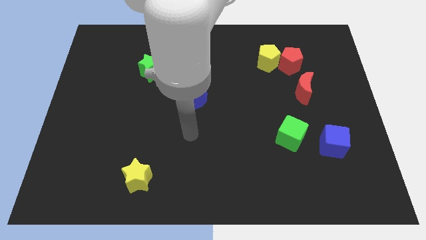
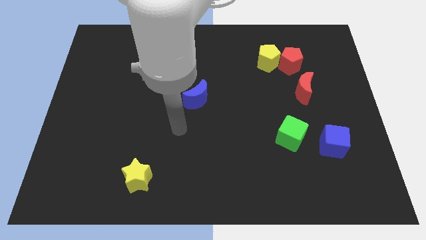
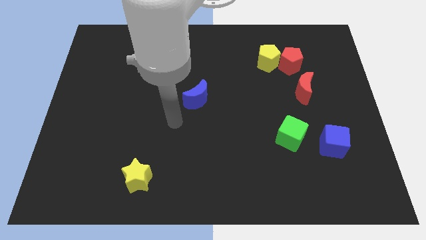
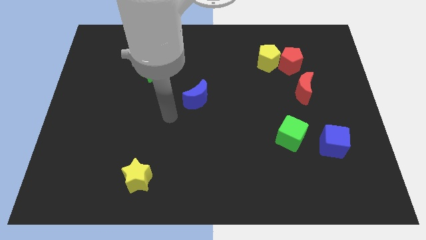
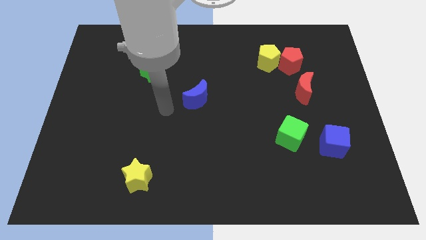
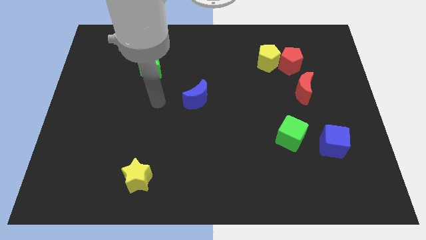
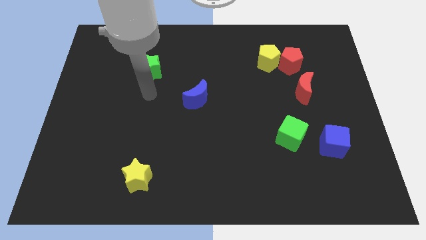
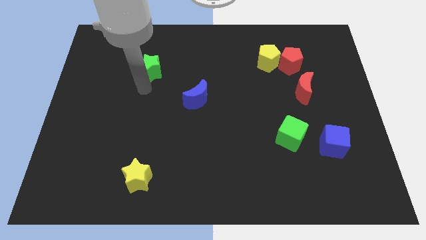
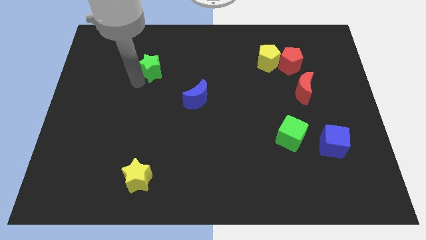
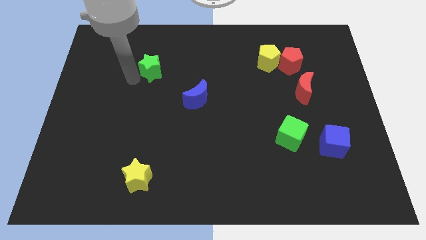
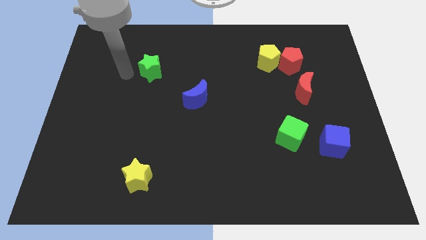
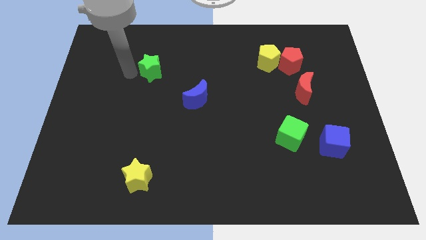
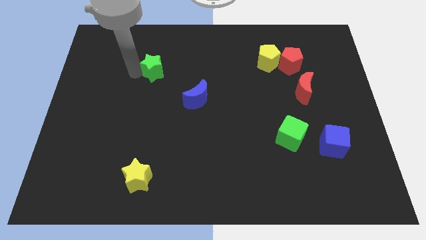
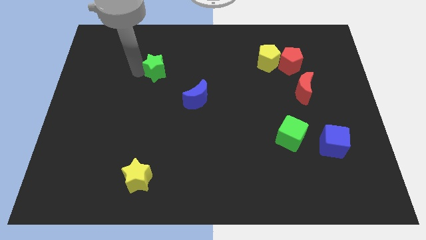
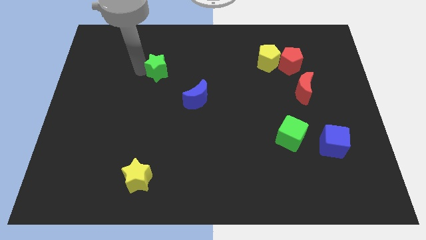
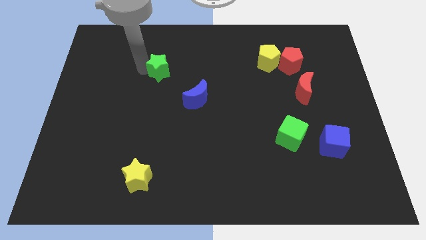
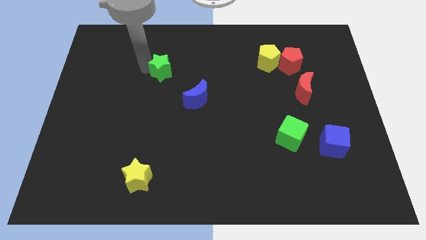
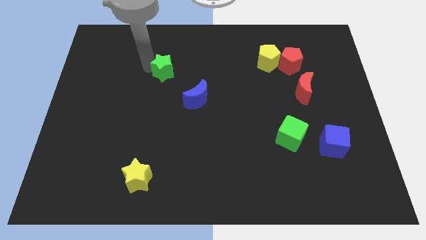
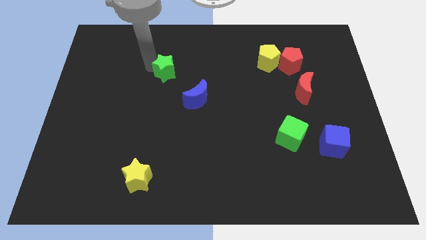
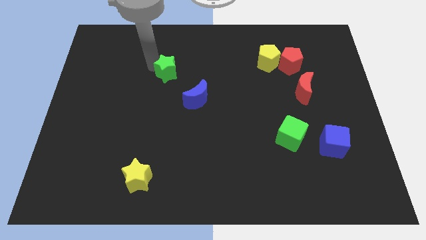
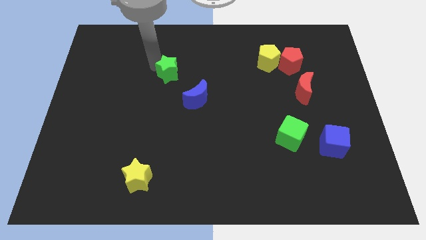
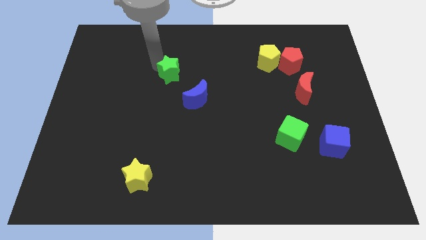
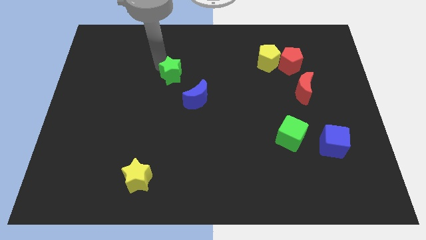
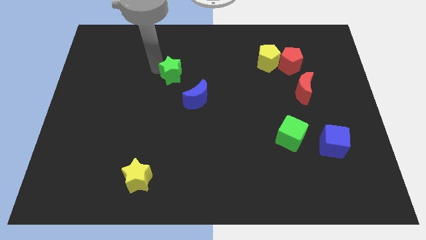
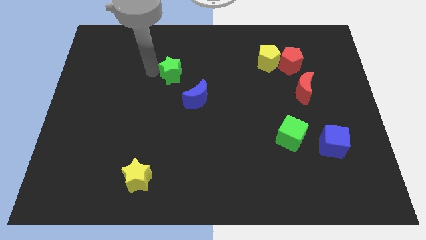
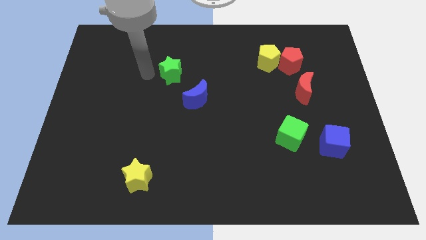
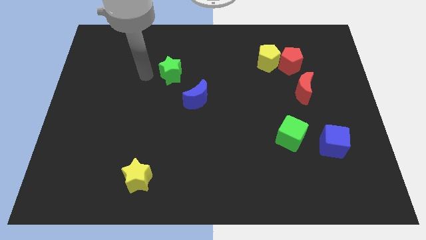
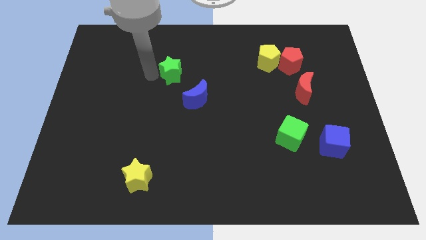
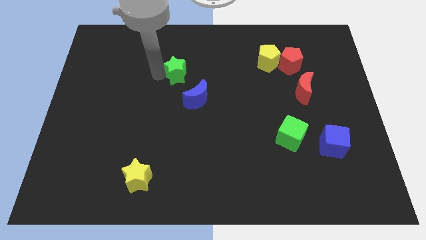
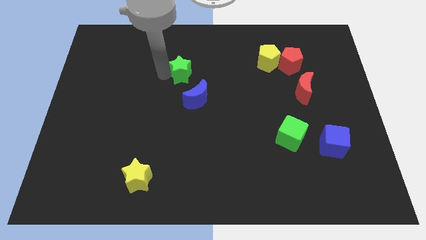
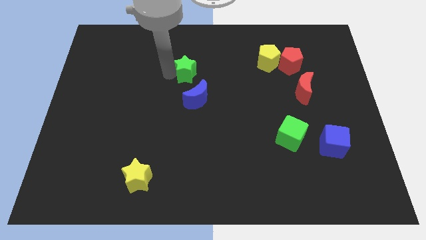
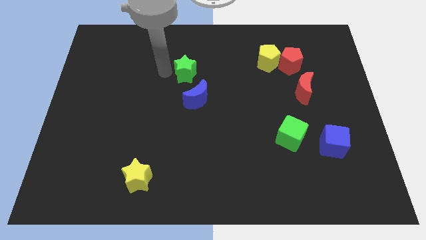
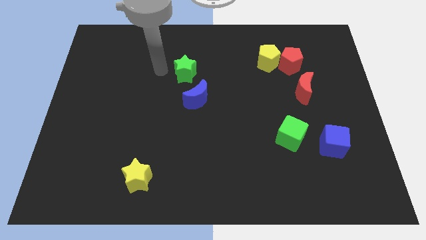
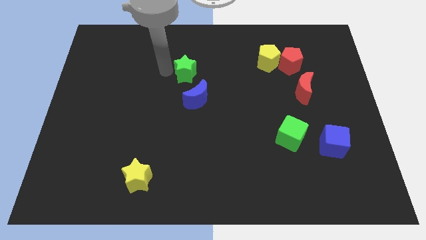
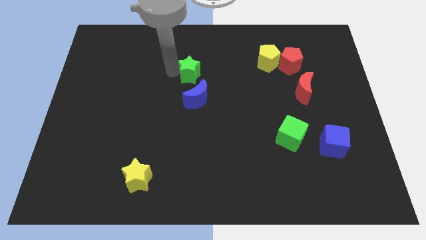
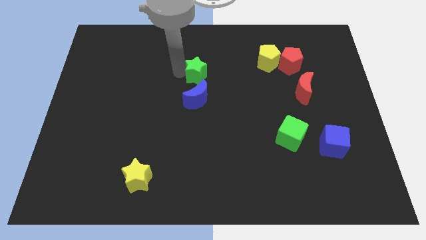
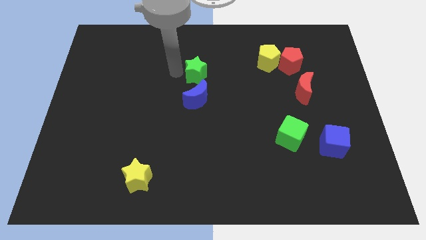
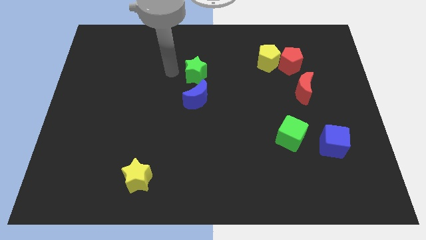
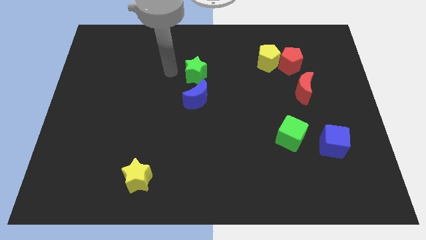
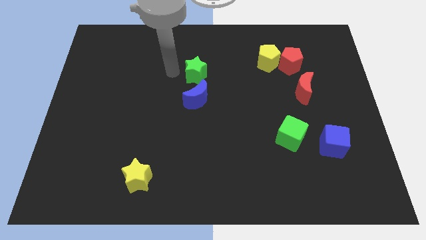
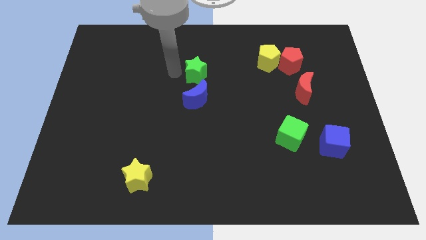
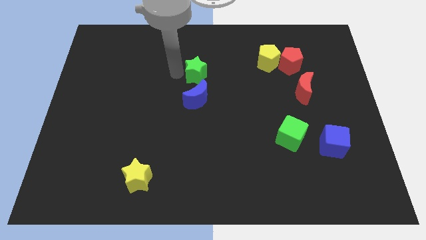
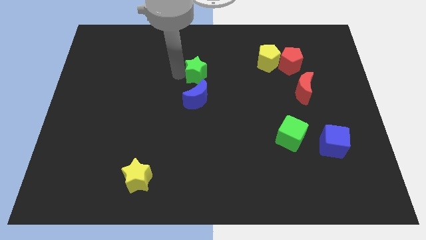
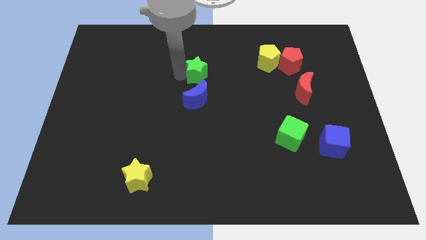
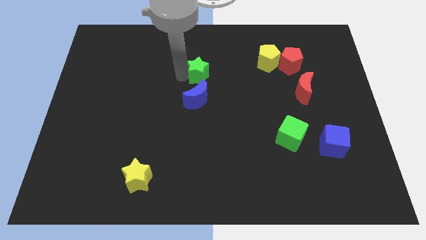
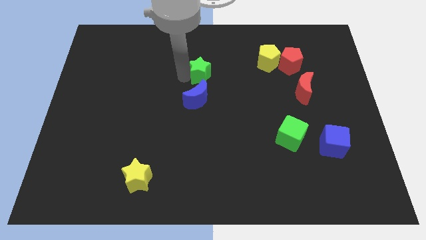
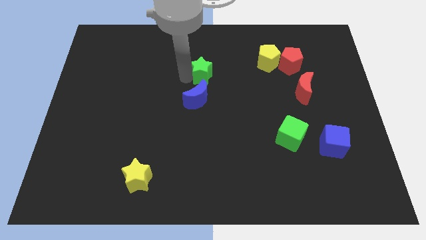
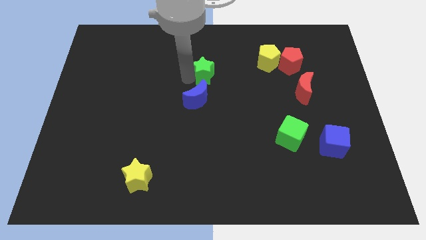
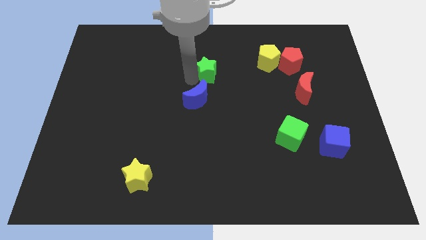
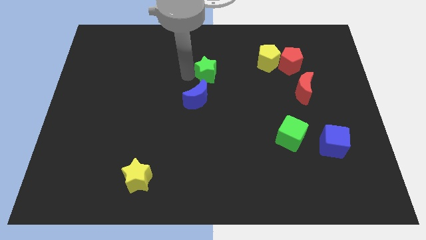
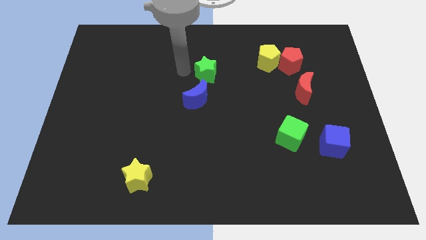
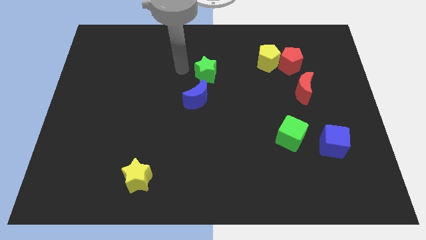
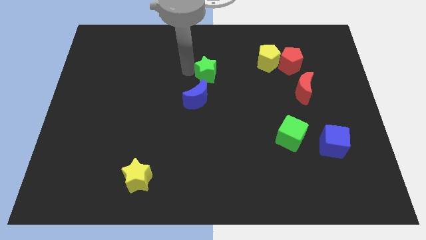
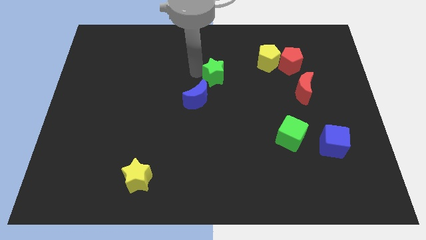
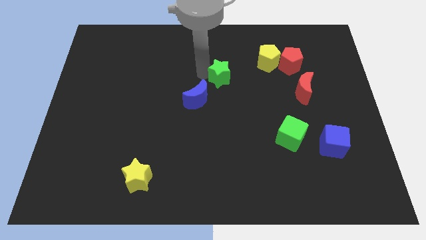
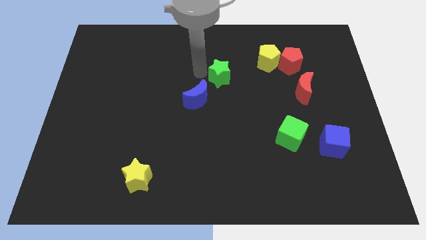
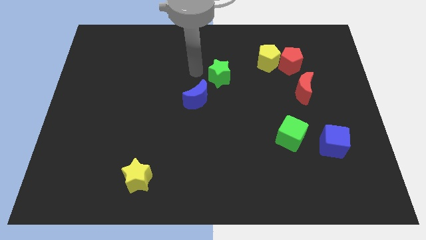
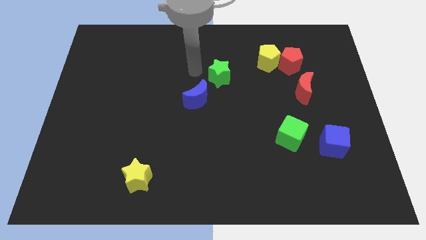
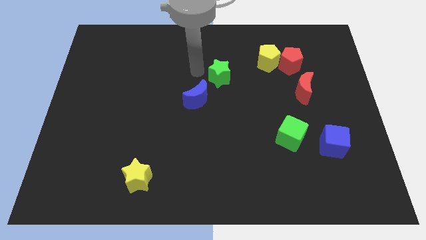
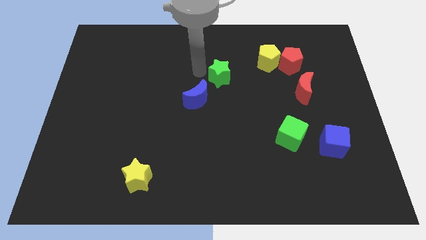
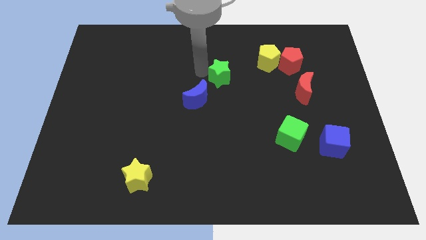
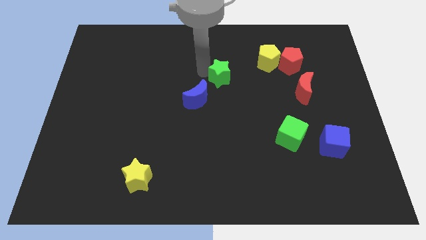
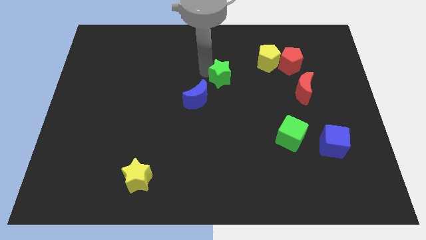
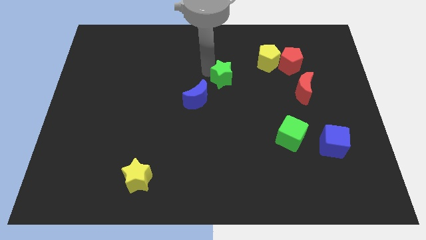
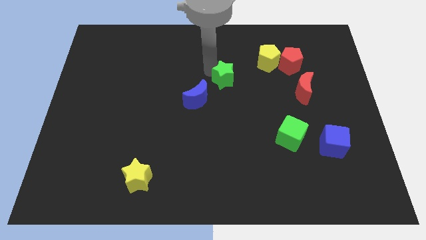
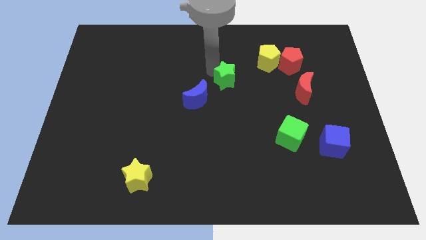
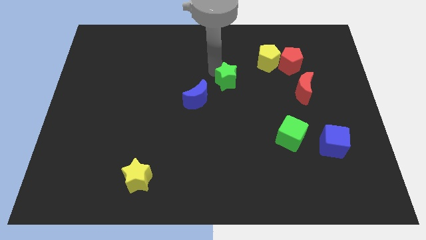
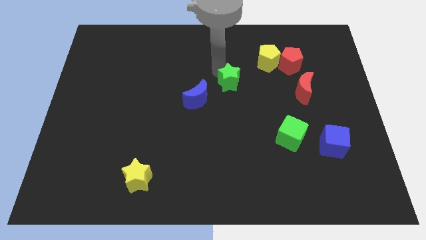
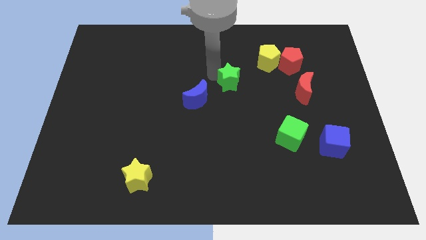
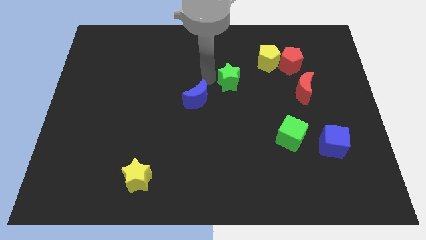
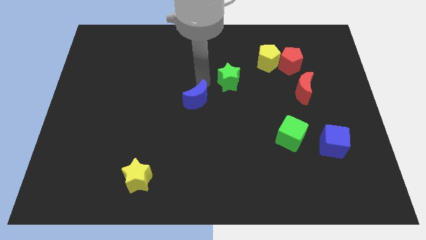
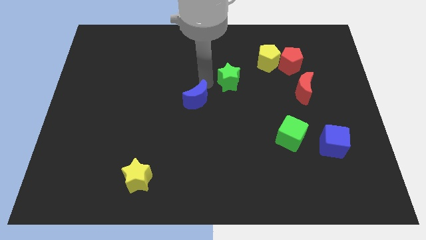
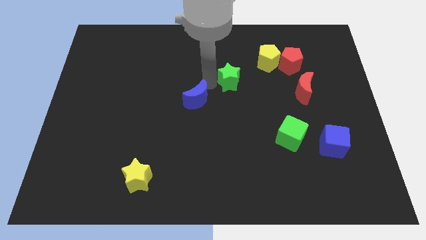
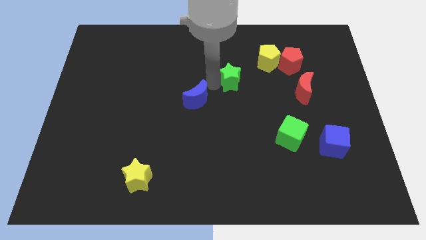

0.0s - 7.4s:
slide the green star to the right
